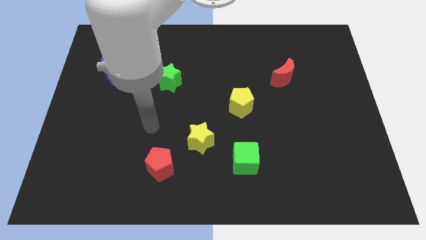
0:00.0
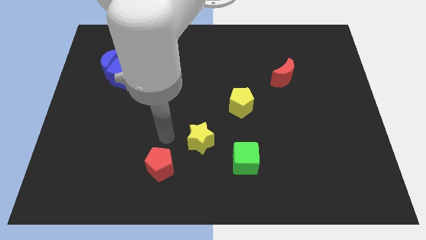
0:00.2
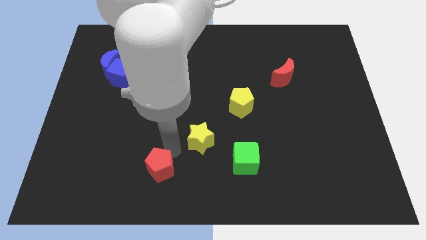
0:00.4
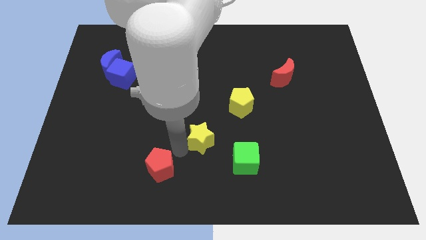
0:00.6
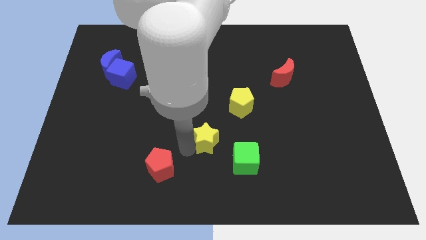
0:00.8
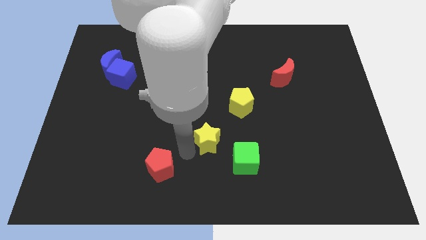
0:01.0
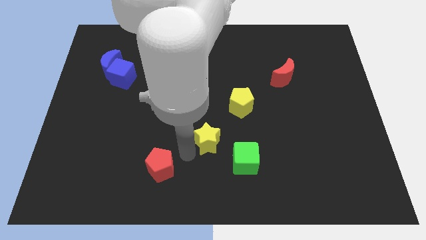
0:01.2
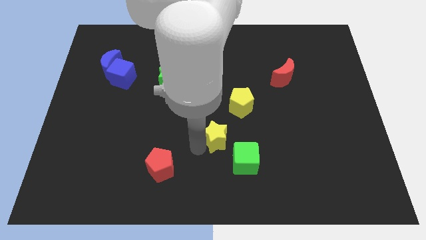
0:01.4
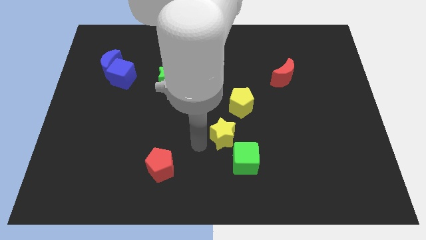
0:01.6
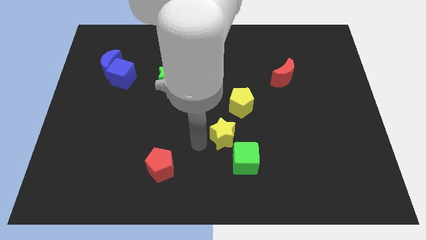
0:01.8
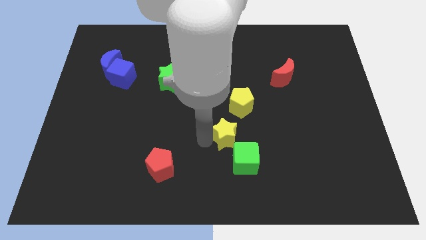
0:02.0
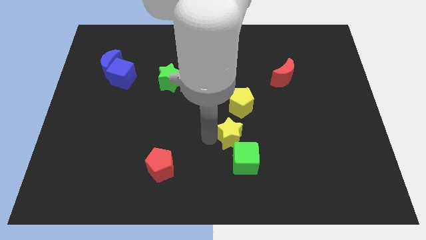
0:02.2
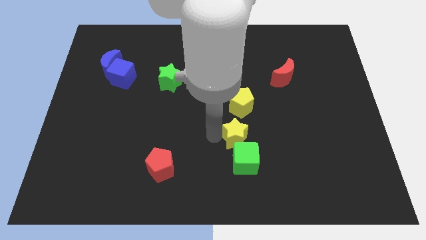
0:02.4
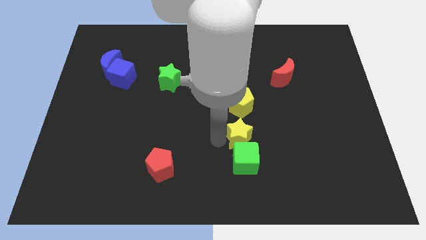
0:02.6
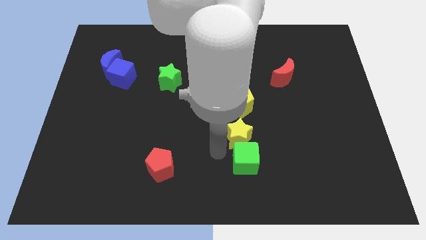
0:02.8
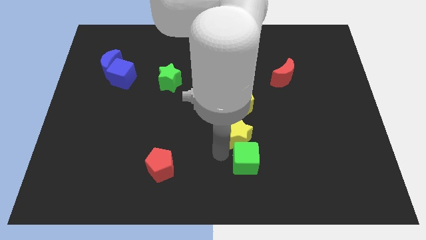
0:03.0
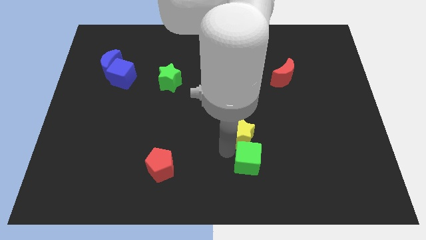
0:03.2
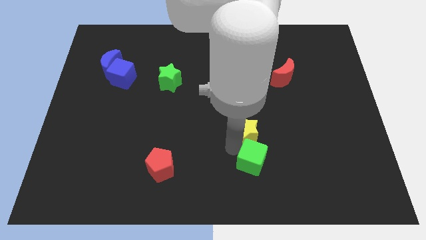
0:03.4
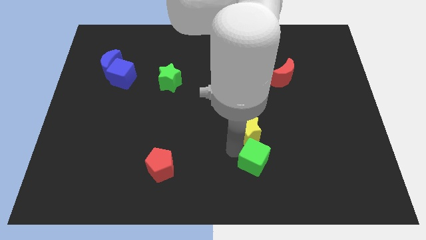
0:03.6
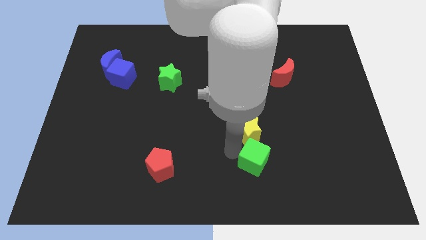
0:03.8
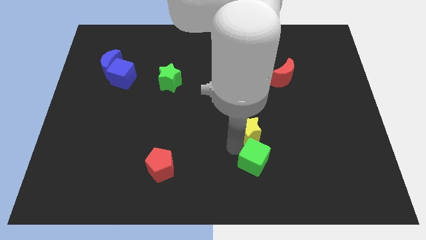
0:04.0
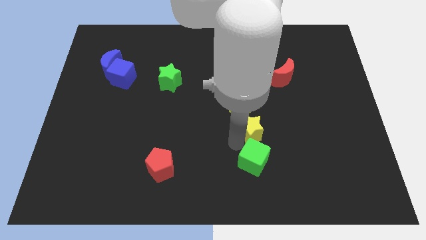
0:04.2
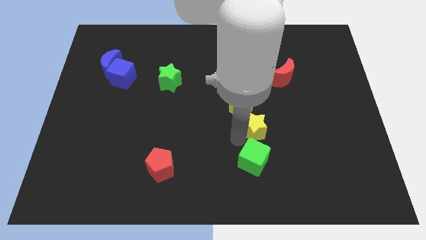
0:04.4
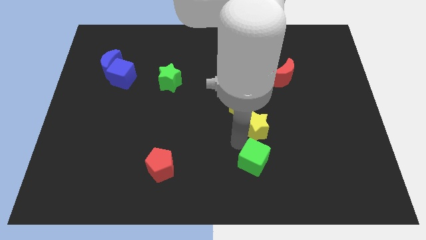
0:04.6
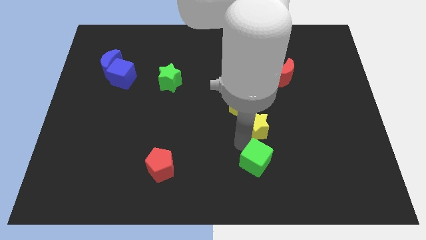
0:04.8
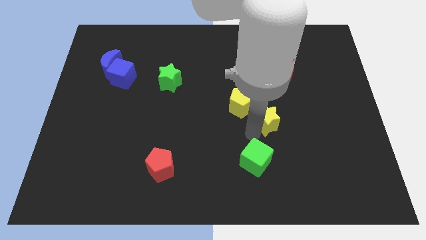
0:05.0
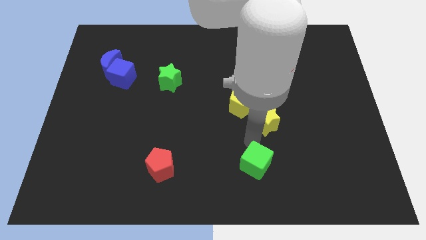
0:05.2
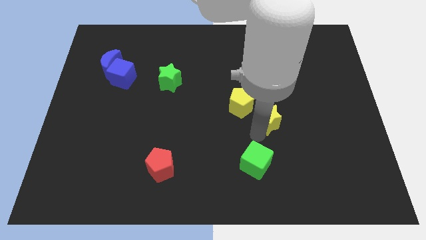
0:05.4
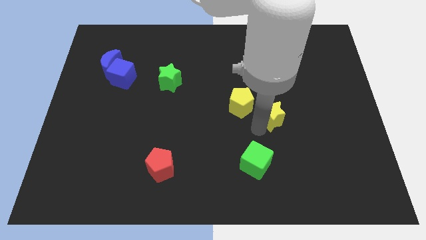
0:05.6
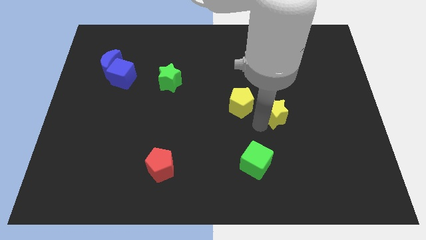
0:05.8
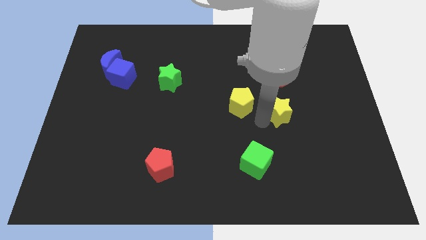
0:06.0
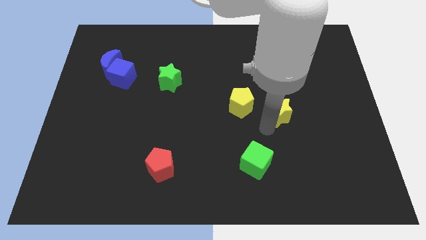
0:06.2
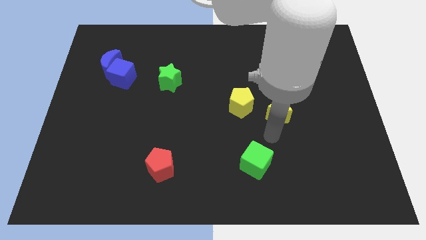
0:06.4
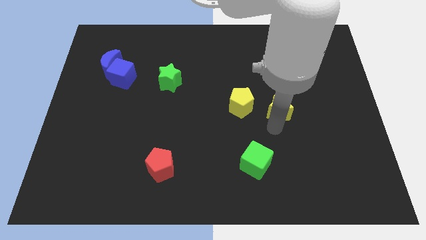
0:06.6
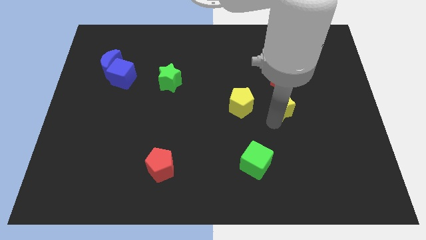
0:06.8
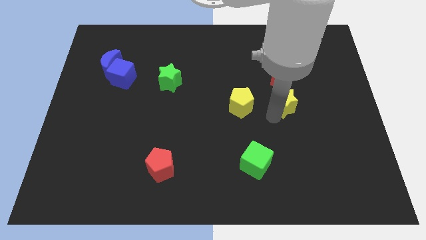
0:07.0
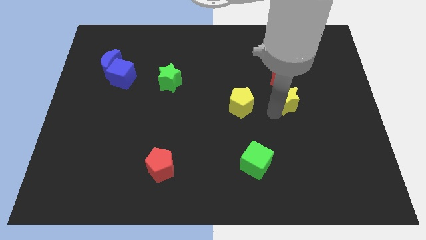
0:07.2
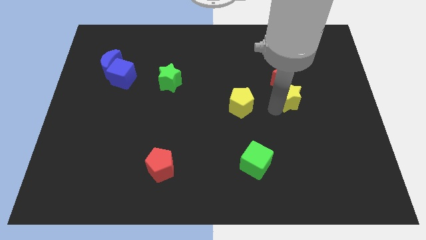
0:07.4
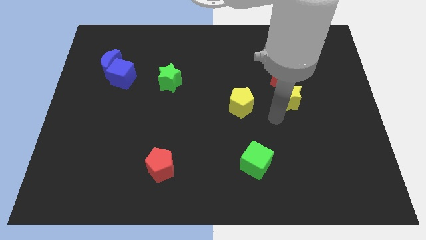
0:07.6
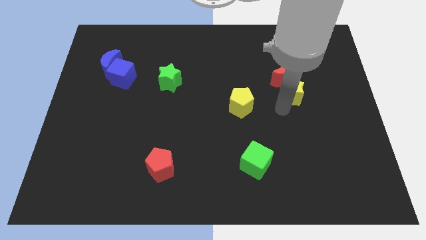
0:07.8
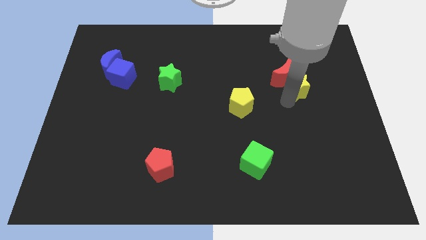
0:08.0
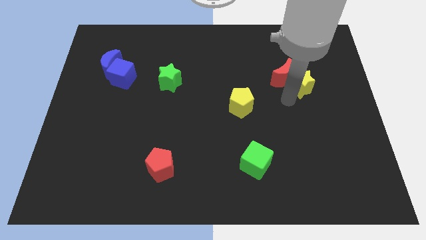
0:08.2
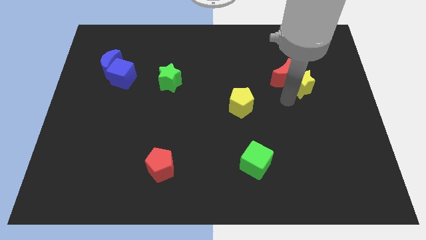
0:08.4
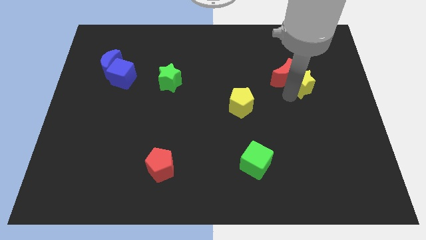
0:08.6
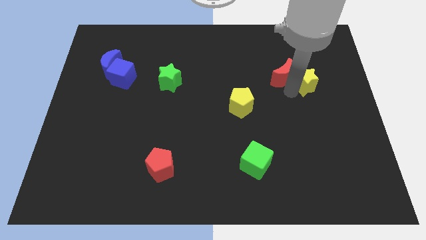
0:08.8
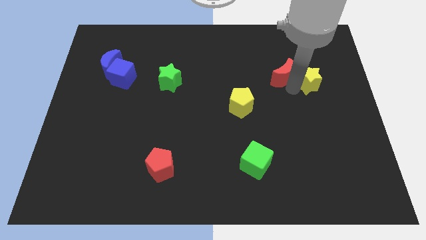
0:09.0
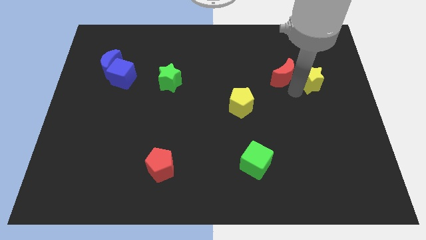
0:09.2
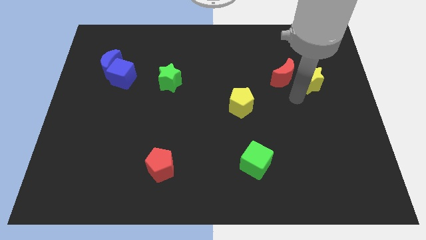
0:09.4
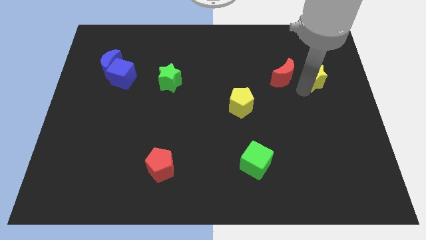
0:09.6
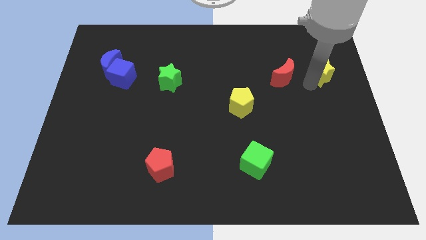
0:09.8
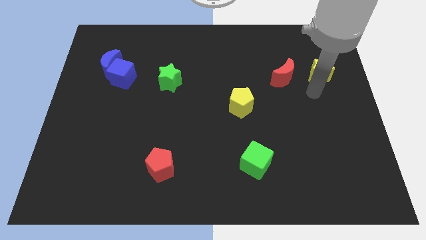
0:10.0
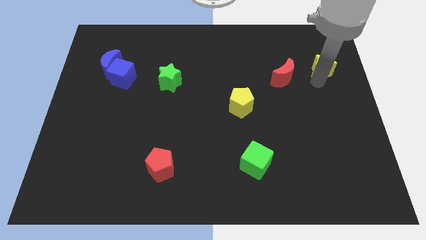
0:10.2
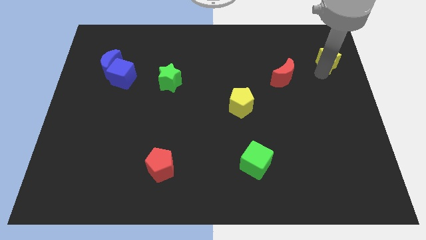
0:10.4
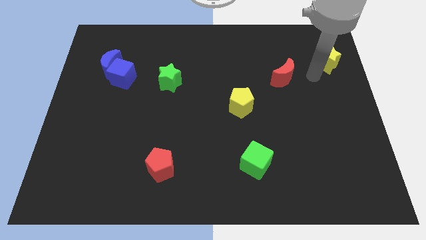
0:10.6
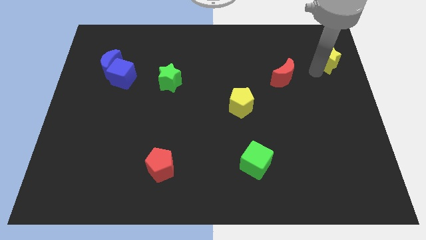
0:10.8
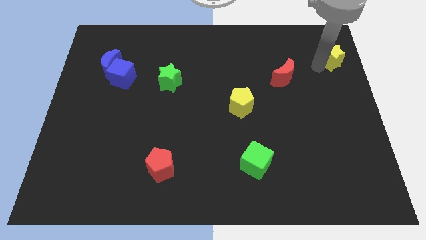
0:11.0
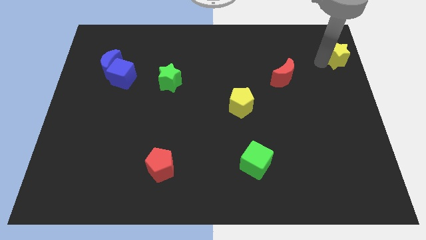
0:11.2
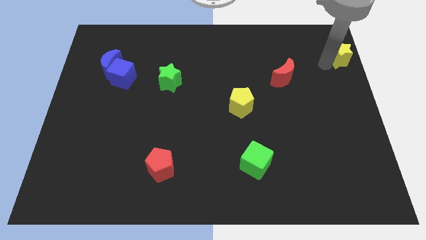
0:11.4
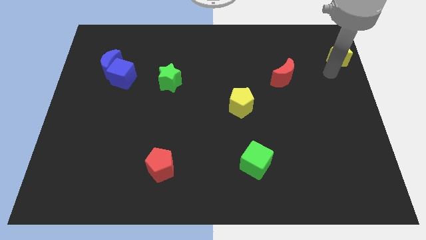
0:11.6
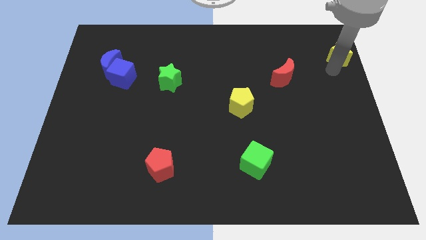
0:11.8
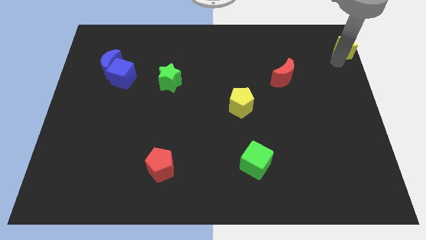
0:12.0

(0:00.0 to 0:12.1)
push the yellow star to the top right of the board

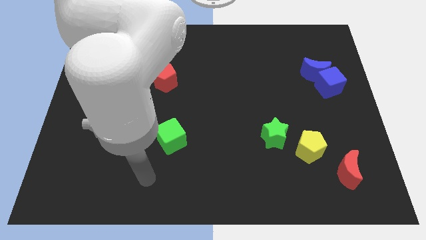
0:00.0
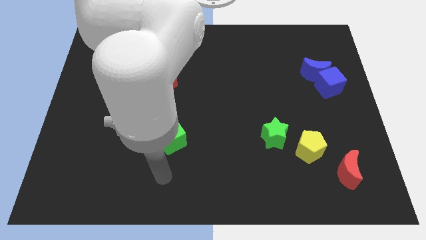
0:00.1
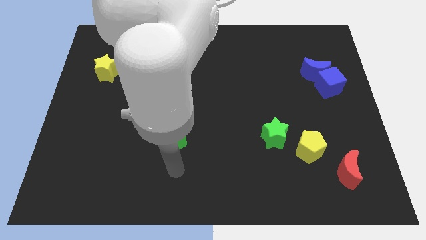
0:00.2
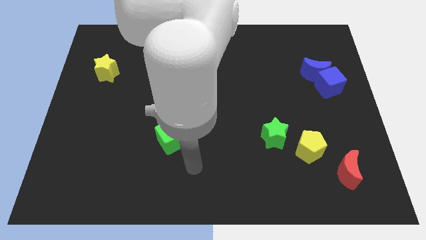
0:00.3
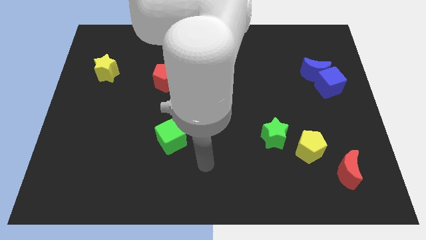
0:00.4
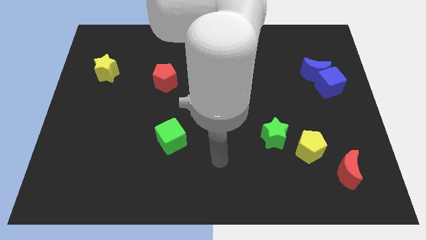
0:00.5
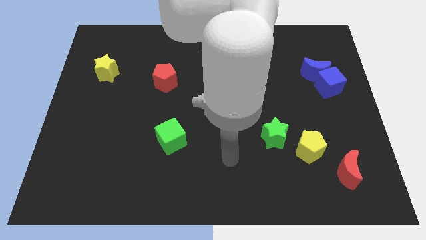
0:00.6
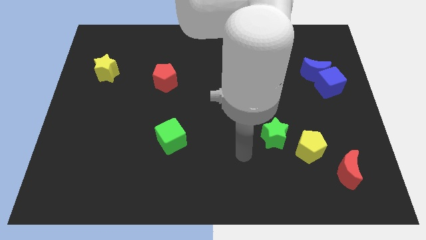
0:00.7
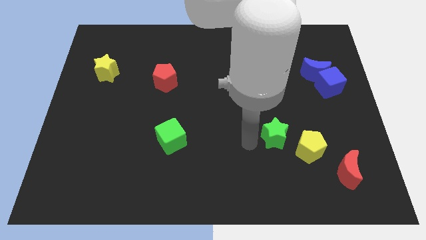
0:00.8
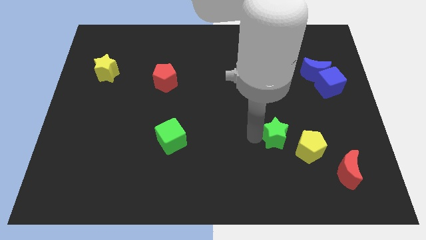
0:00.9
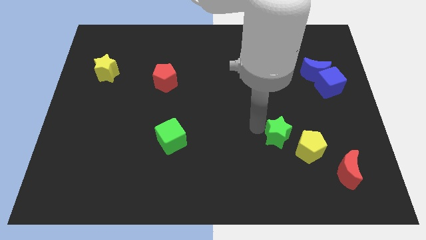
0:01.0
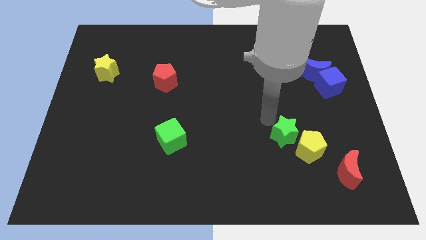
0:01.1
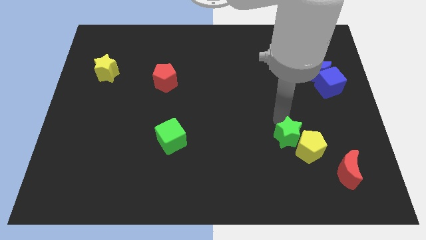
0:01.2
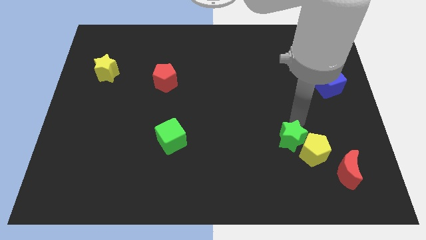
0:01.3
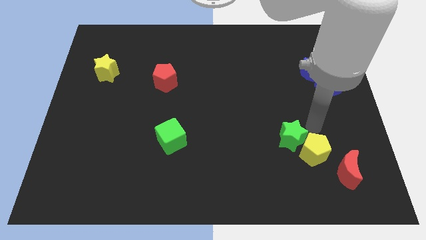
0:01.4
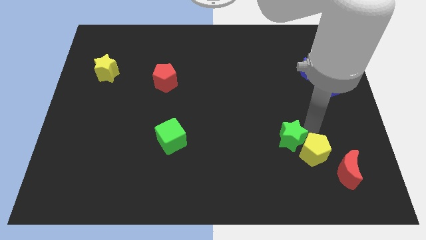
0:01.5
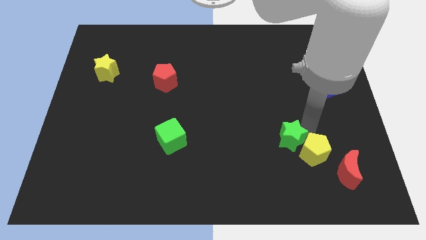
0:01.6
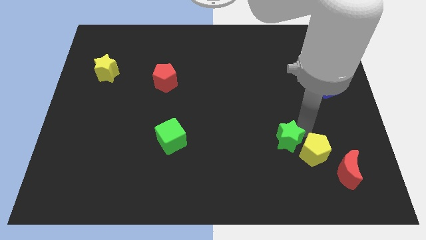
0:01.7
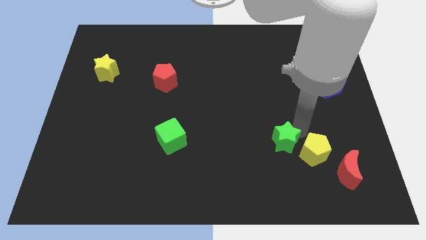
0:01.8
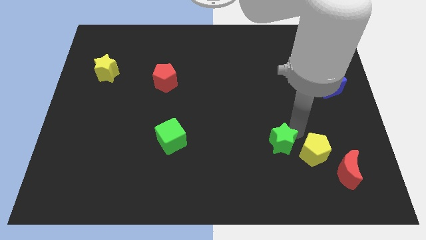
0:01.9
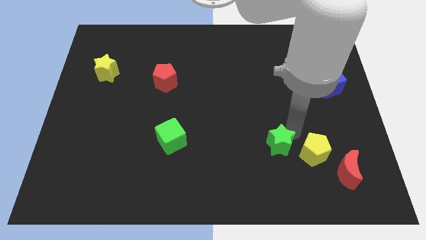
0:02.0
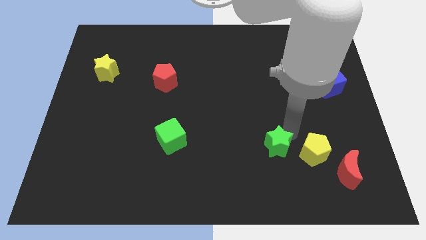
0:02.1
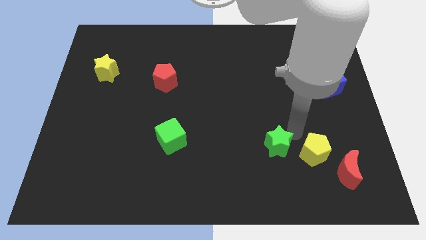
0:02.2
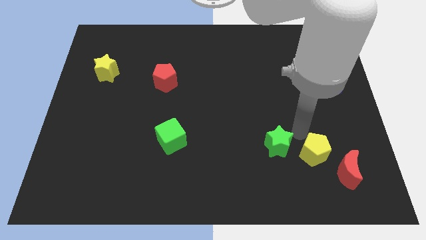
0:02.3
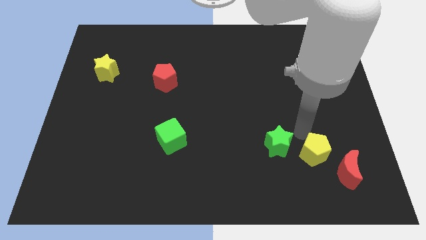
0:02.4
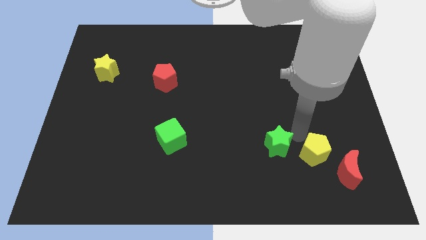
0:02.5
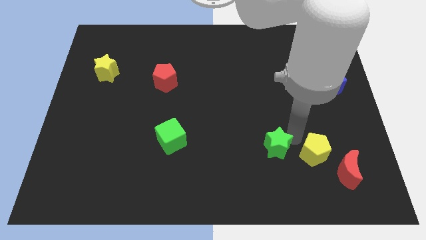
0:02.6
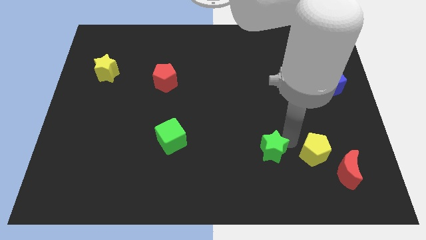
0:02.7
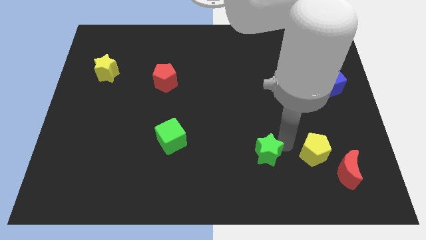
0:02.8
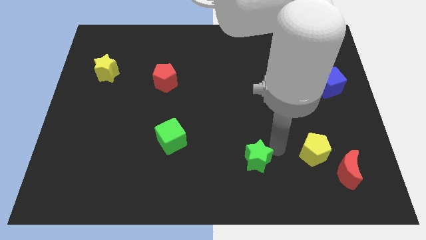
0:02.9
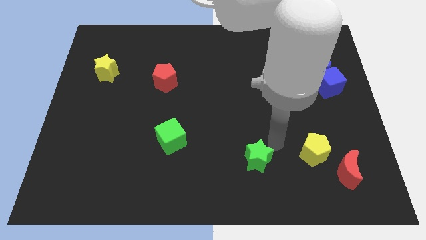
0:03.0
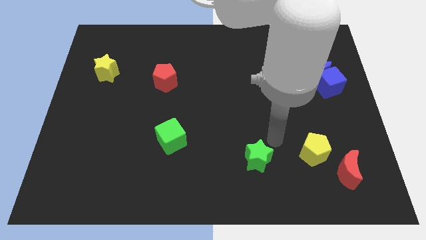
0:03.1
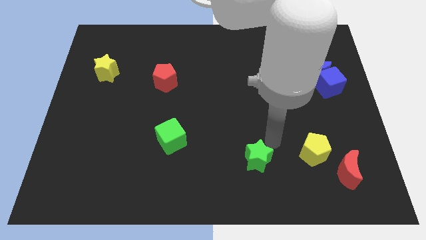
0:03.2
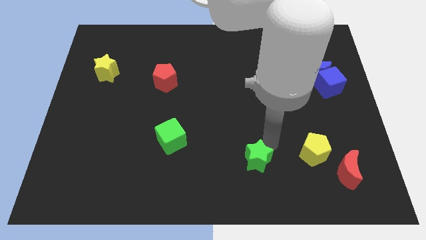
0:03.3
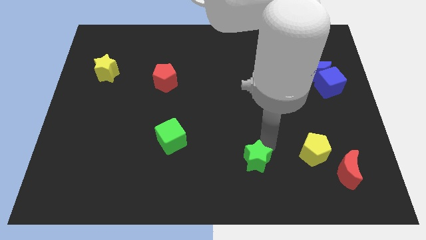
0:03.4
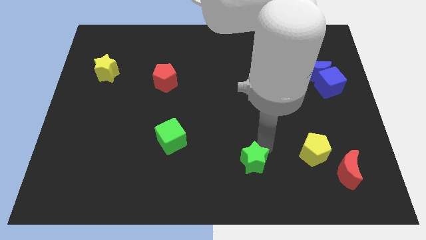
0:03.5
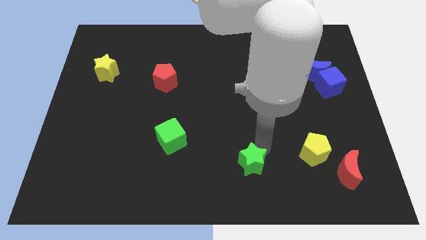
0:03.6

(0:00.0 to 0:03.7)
slide the green star to the bottom
